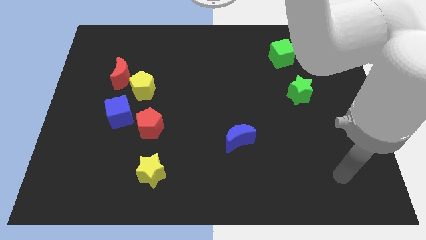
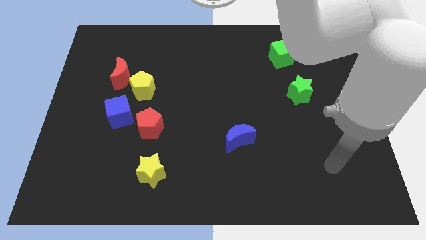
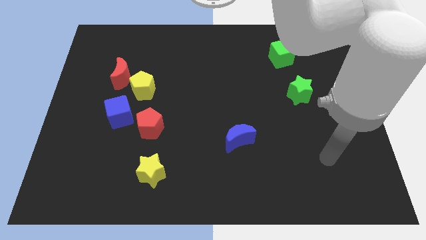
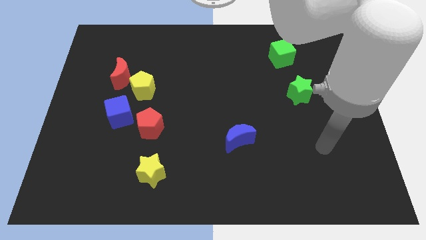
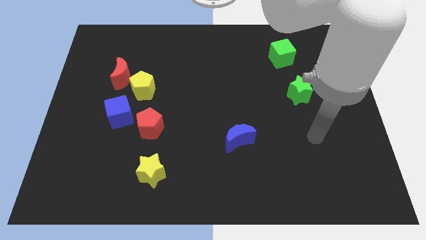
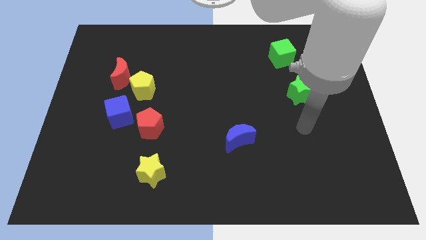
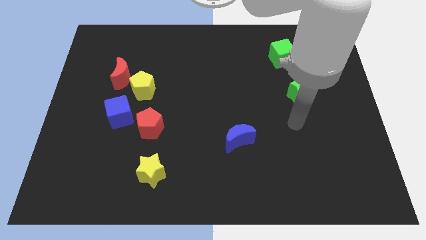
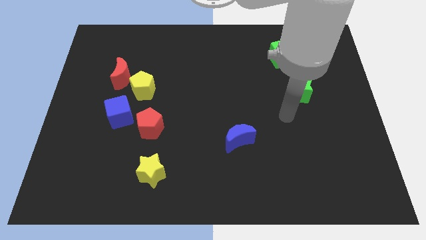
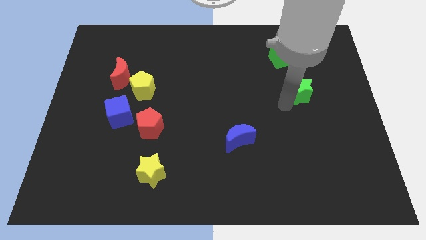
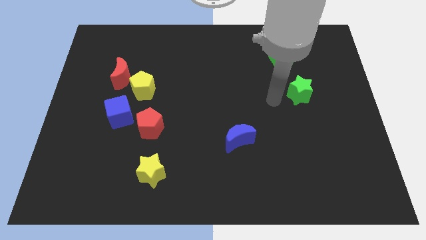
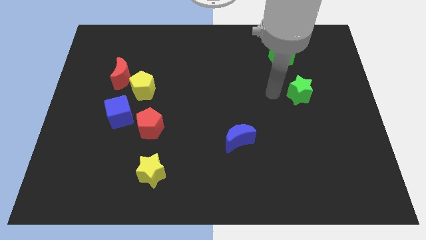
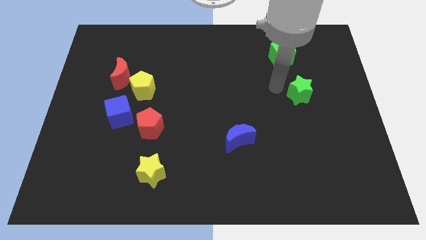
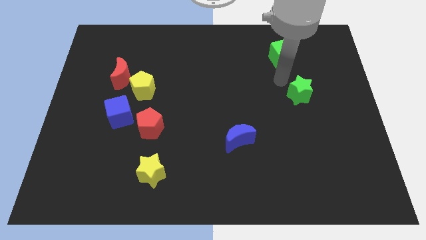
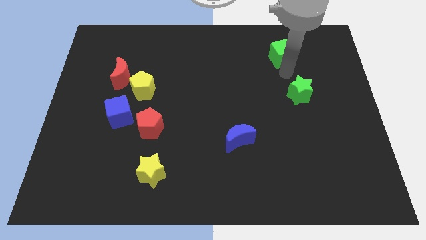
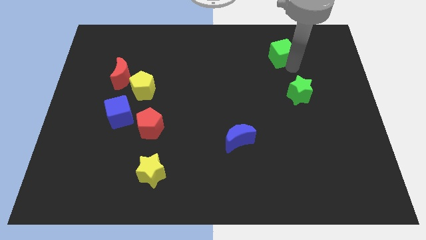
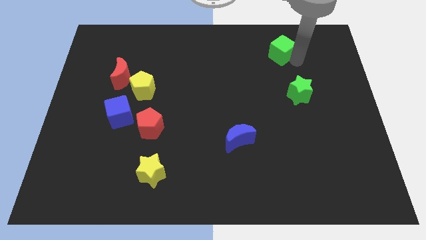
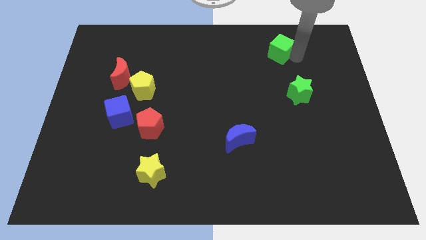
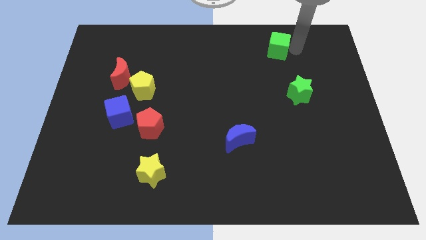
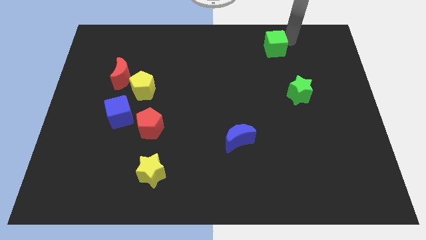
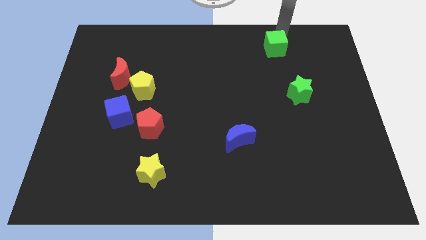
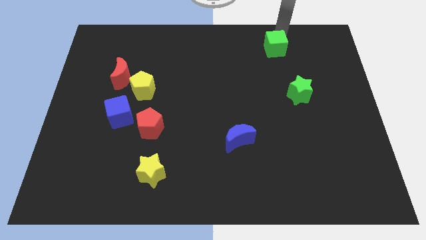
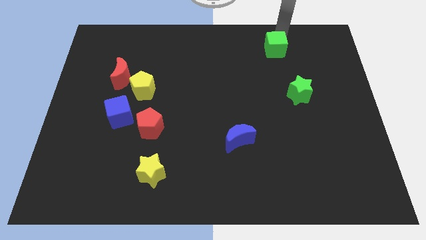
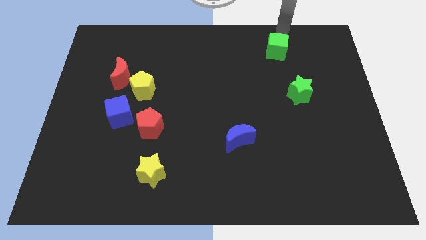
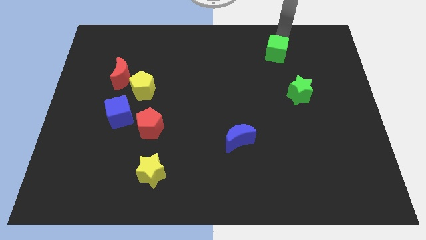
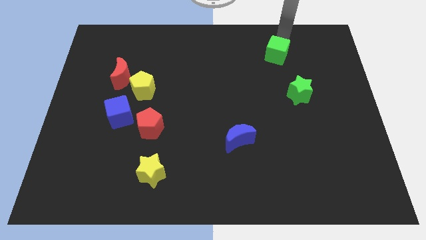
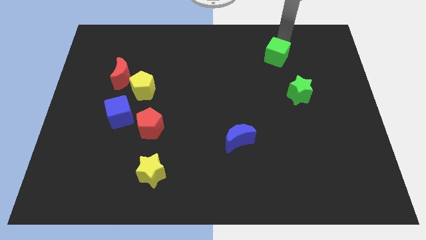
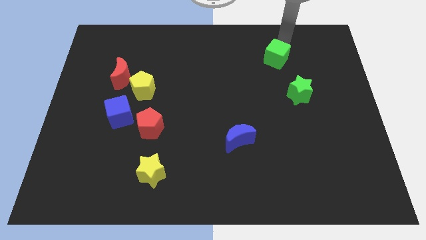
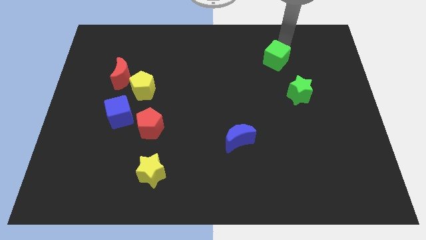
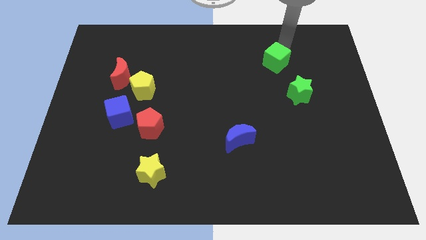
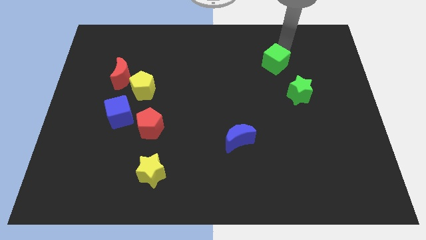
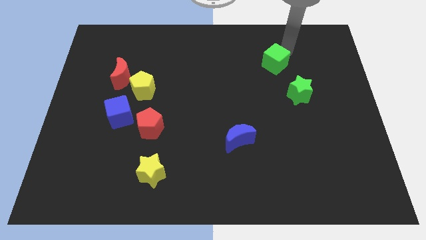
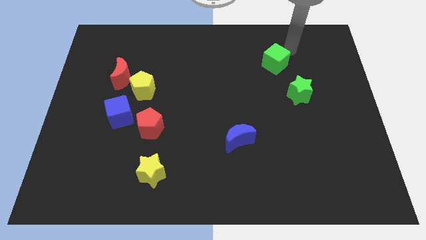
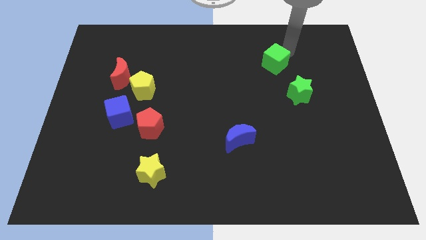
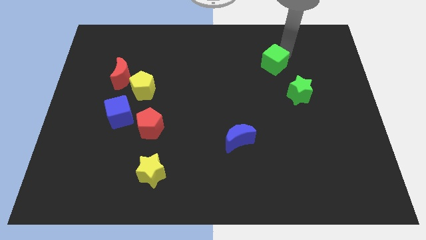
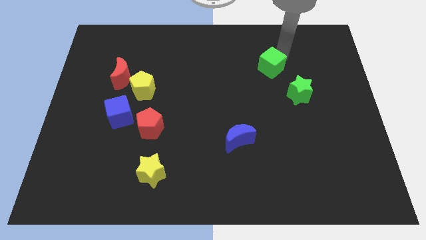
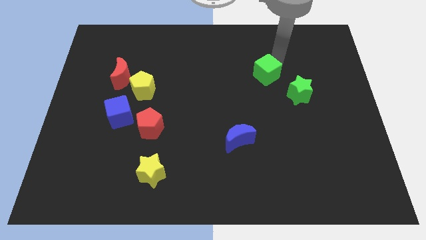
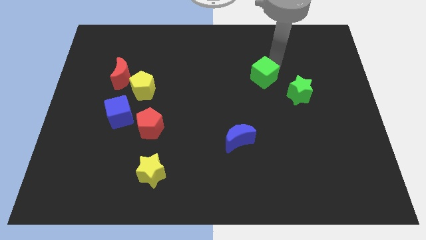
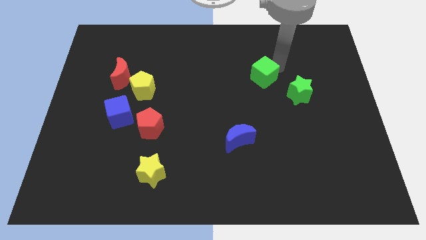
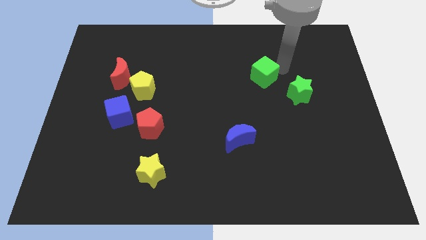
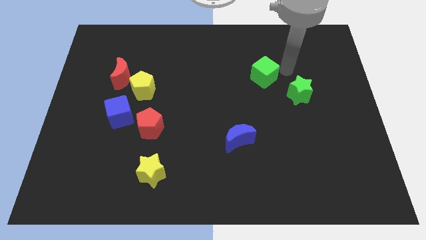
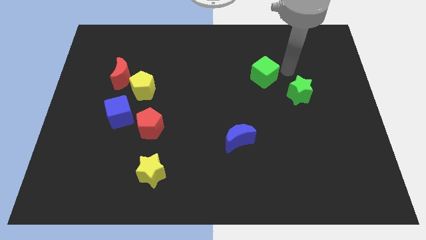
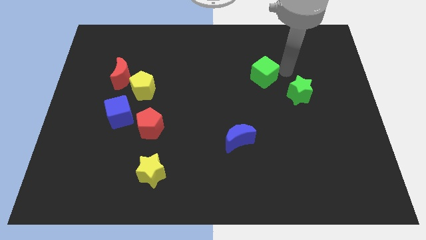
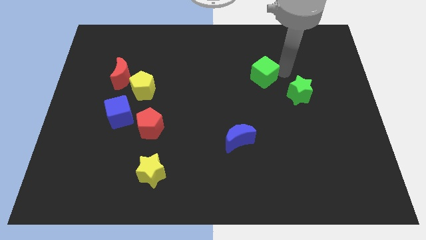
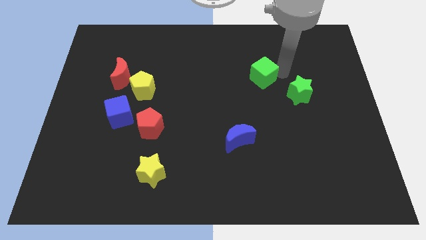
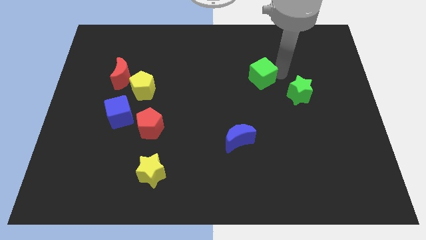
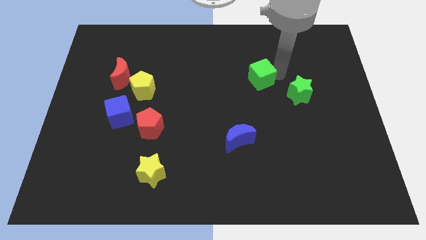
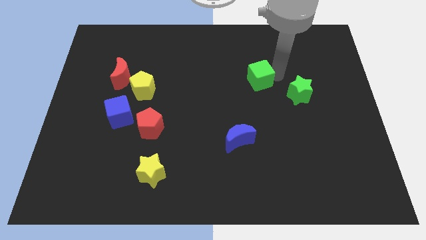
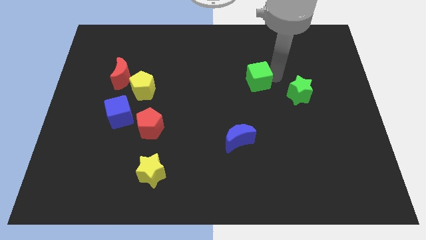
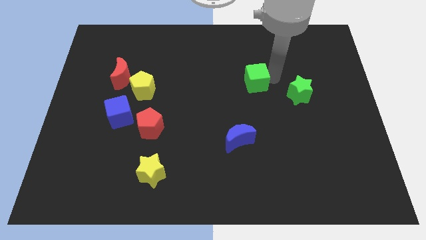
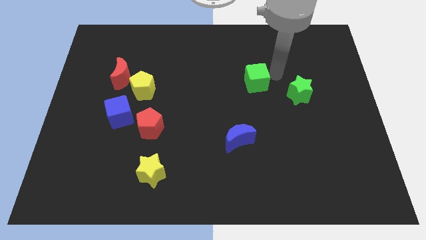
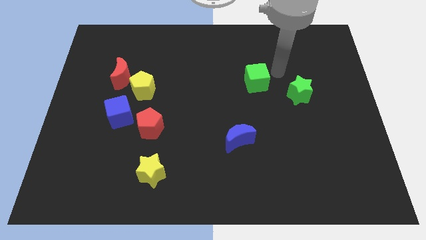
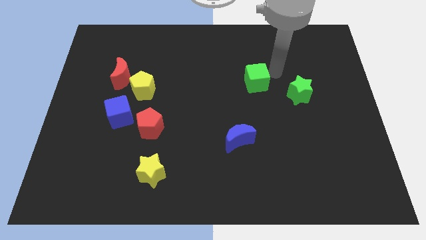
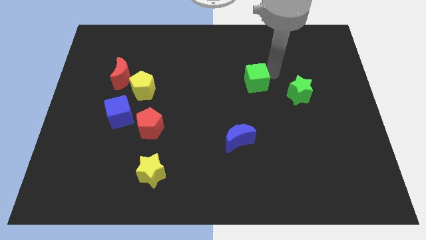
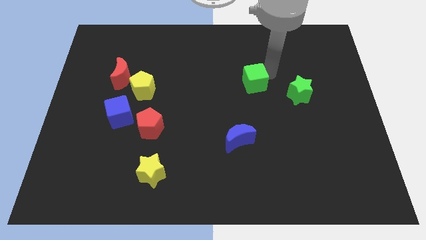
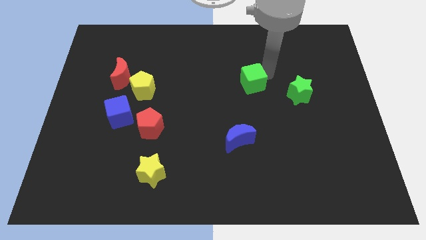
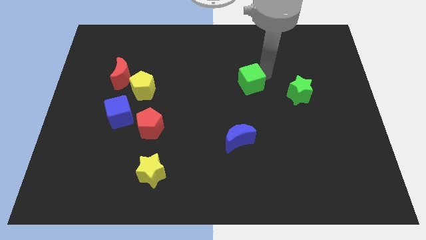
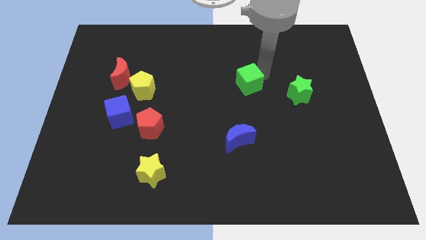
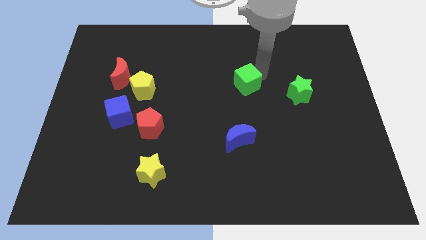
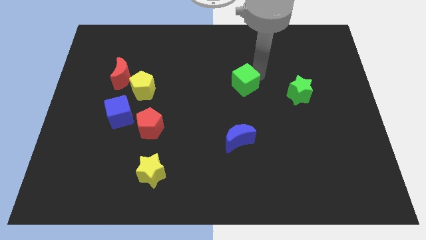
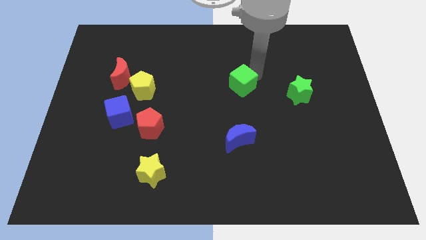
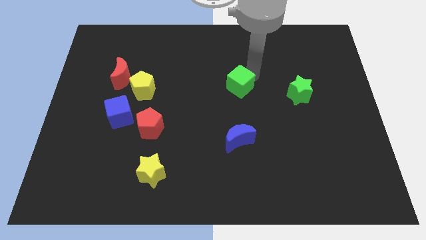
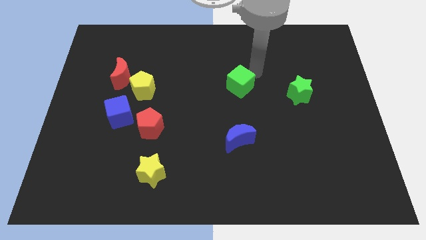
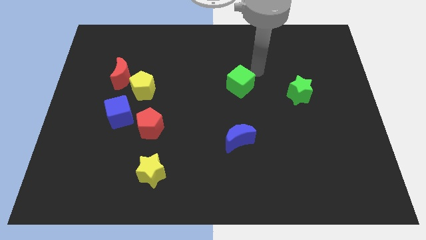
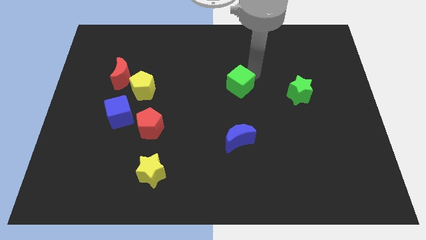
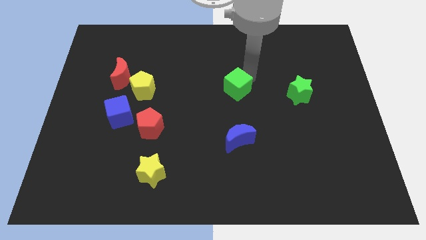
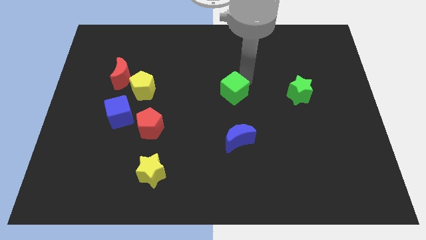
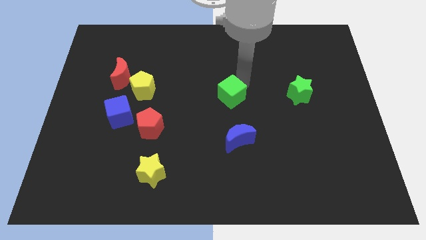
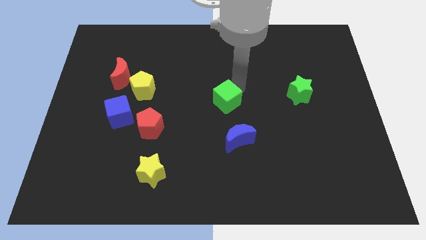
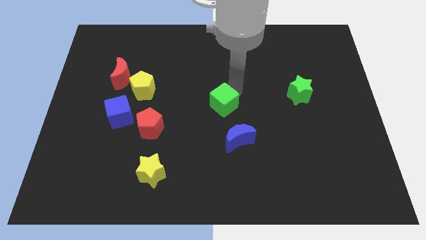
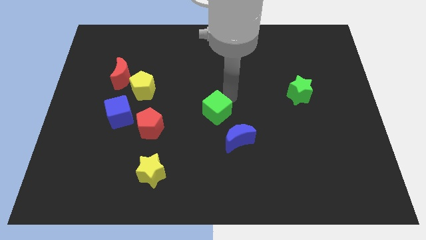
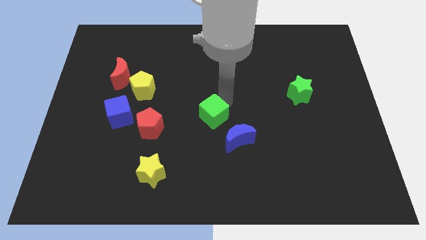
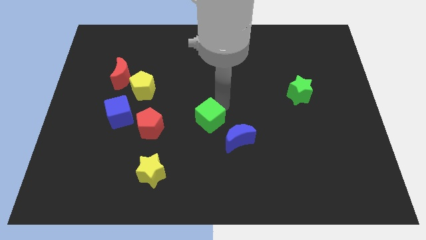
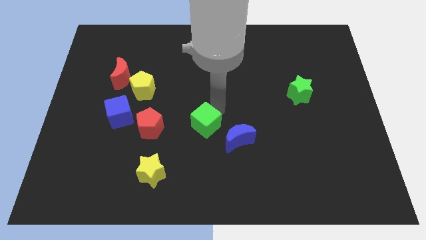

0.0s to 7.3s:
push the green cube to the left of the blue moon
